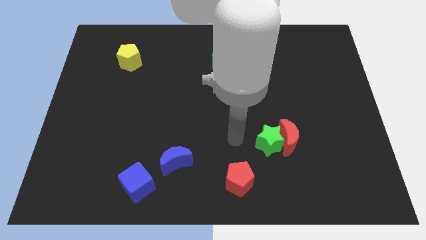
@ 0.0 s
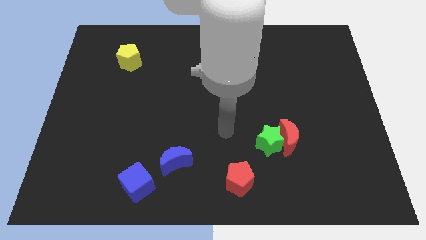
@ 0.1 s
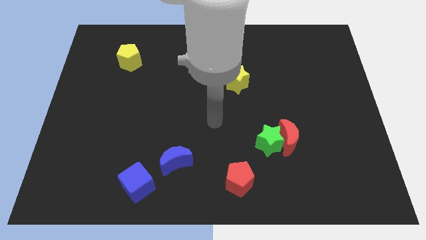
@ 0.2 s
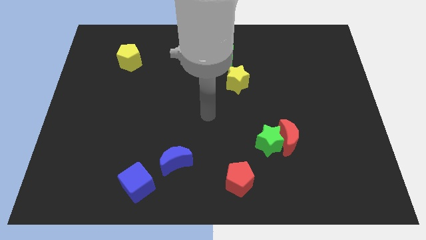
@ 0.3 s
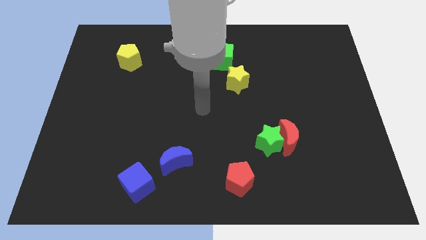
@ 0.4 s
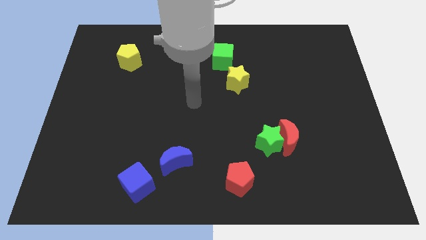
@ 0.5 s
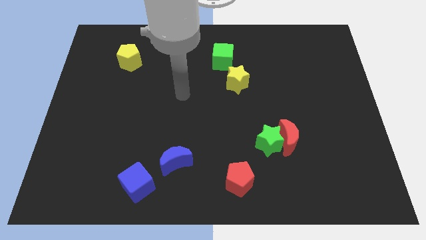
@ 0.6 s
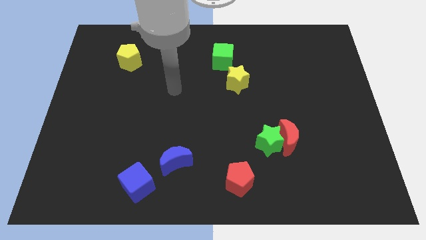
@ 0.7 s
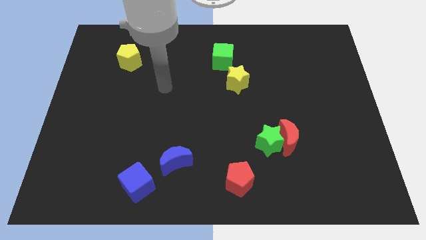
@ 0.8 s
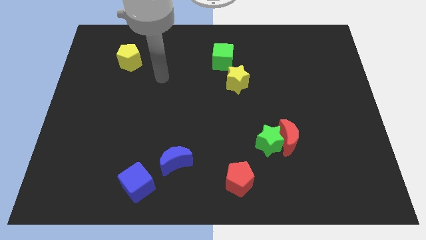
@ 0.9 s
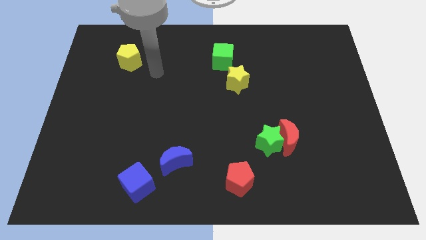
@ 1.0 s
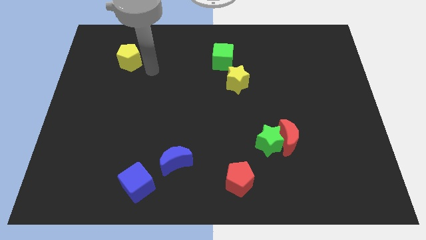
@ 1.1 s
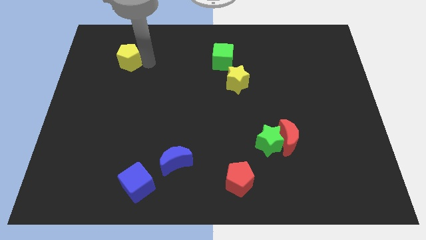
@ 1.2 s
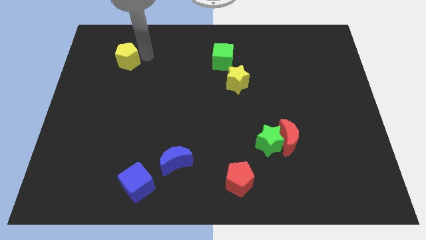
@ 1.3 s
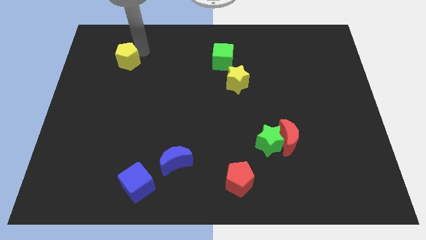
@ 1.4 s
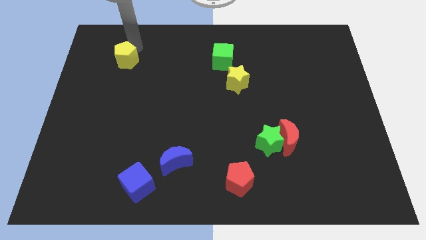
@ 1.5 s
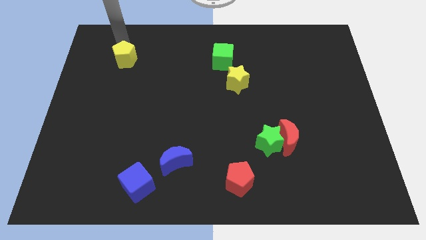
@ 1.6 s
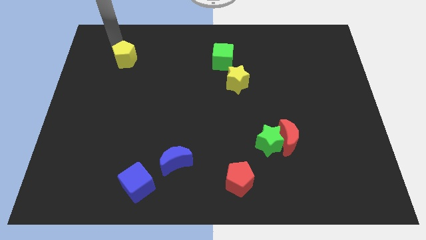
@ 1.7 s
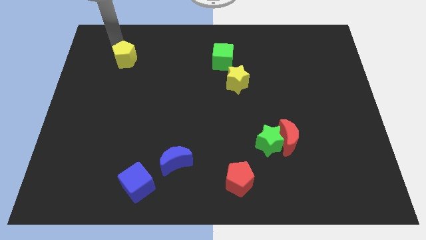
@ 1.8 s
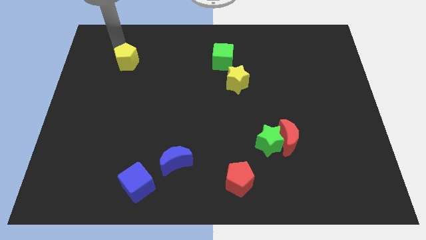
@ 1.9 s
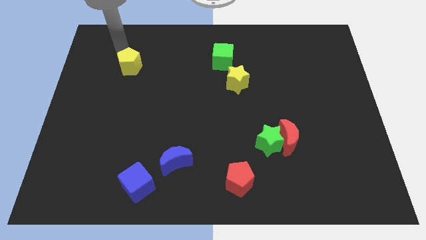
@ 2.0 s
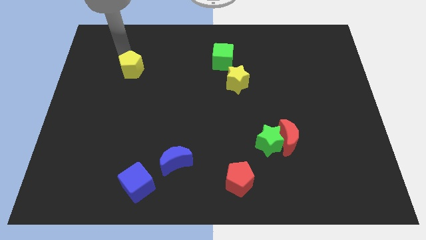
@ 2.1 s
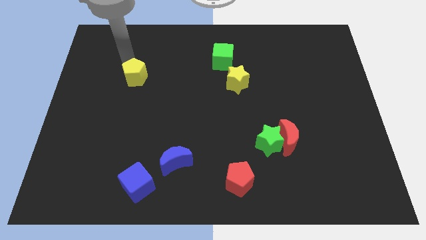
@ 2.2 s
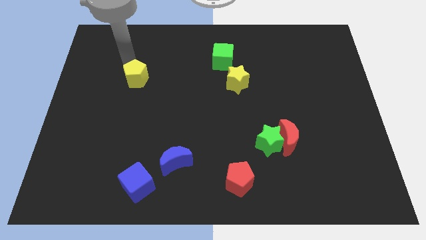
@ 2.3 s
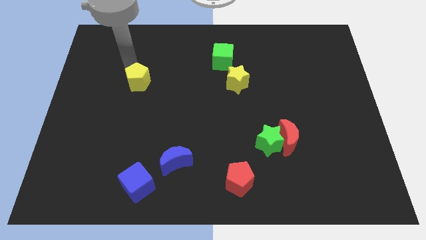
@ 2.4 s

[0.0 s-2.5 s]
slightly move the yellow pentagon downwards and then right

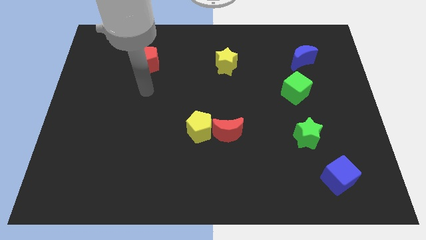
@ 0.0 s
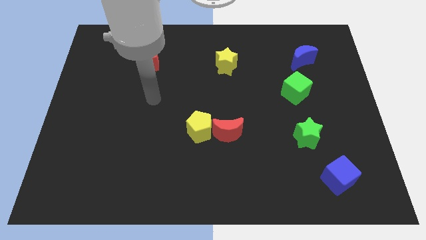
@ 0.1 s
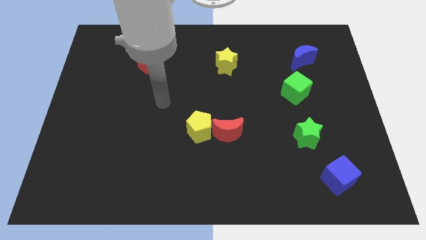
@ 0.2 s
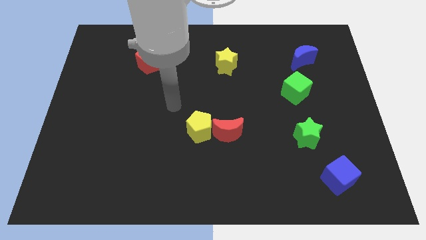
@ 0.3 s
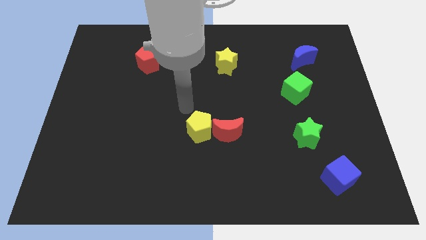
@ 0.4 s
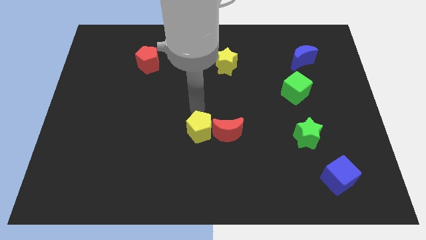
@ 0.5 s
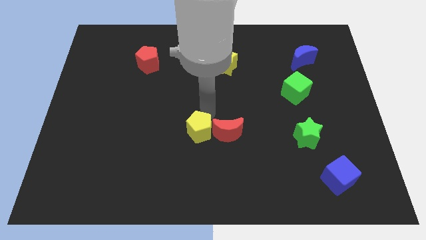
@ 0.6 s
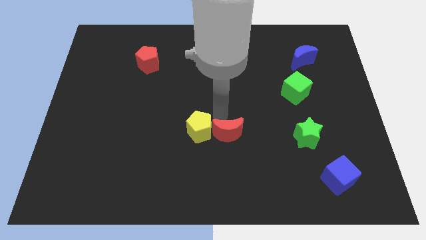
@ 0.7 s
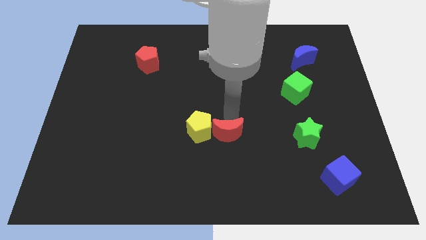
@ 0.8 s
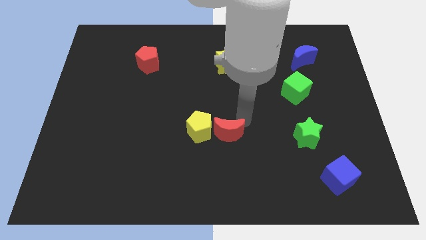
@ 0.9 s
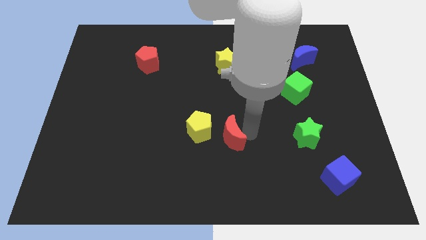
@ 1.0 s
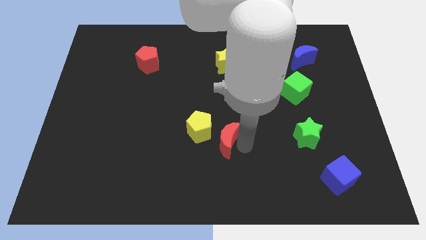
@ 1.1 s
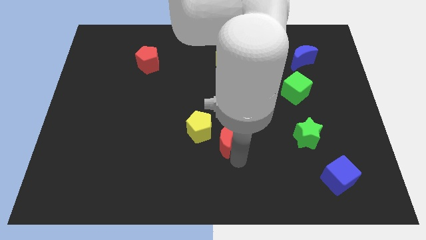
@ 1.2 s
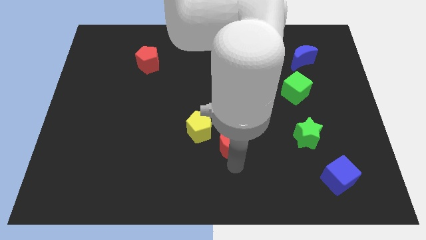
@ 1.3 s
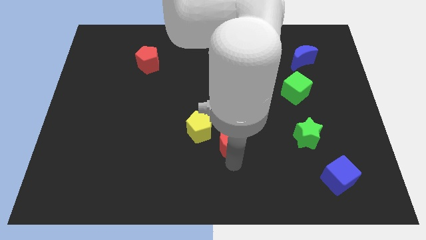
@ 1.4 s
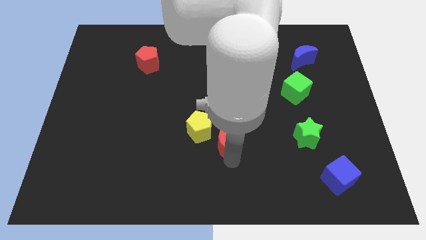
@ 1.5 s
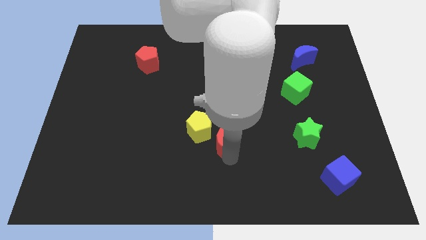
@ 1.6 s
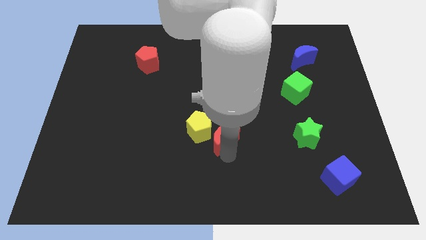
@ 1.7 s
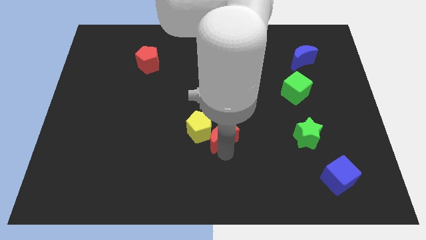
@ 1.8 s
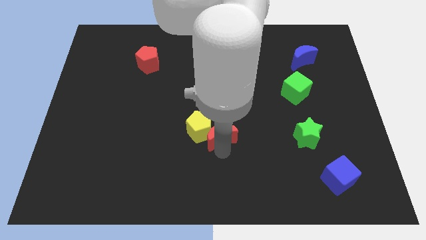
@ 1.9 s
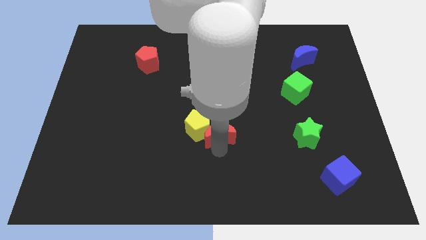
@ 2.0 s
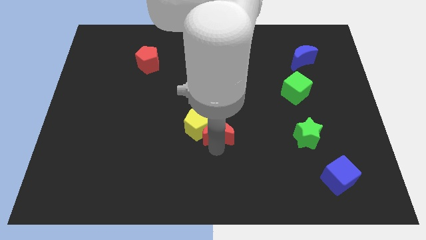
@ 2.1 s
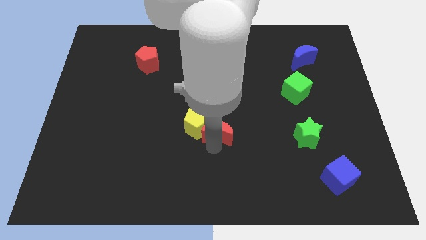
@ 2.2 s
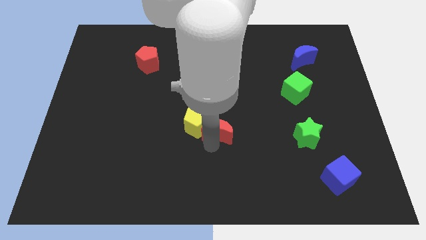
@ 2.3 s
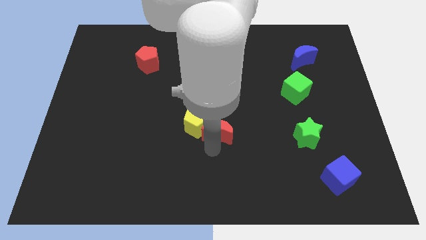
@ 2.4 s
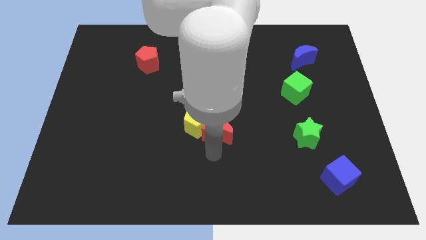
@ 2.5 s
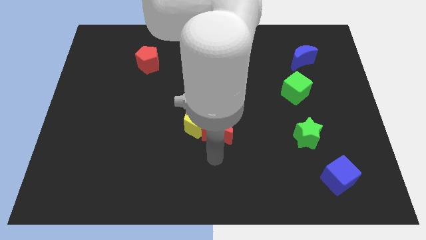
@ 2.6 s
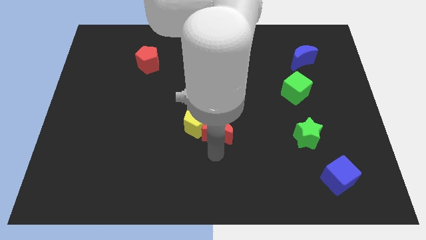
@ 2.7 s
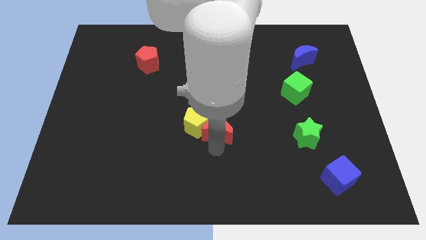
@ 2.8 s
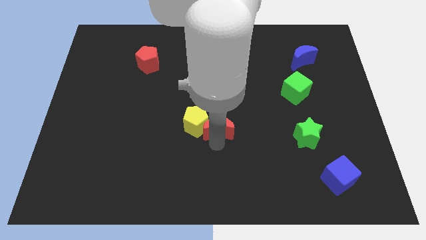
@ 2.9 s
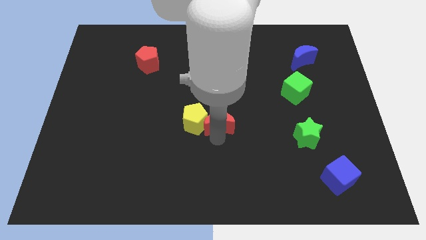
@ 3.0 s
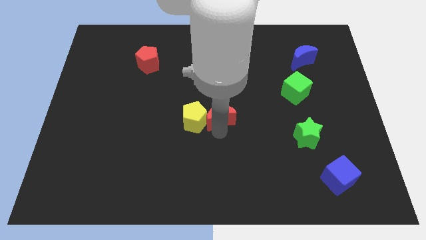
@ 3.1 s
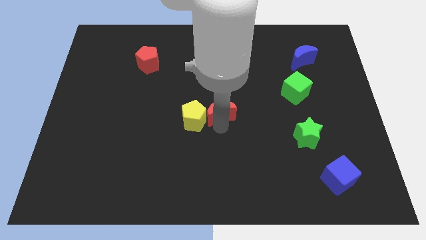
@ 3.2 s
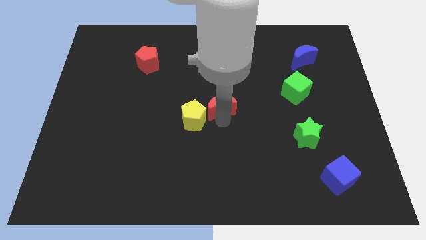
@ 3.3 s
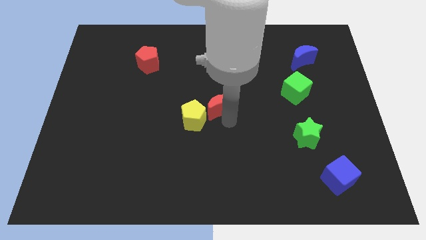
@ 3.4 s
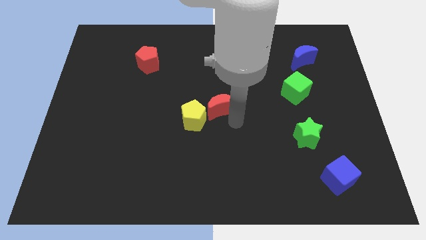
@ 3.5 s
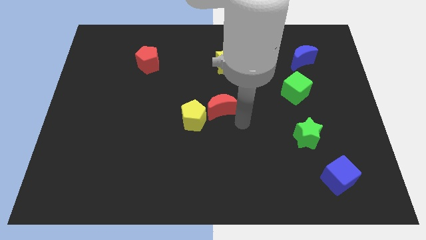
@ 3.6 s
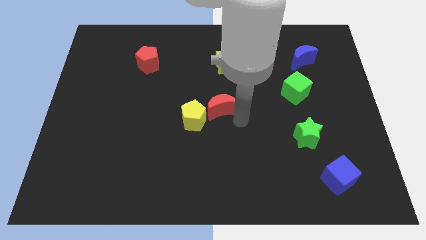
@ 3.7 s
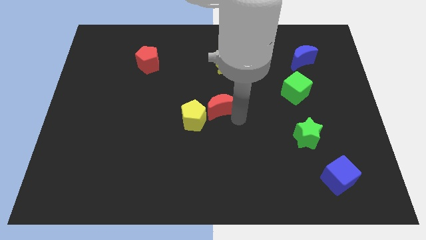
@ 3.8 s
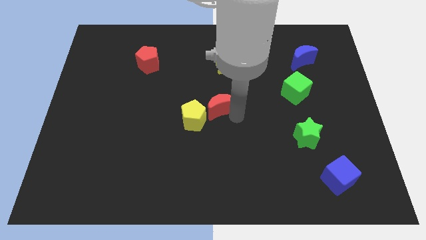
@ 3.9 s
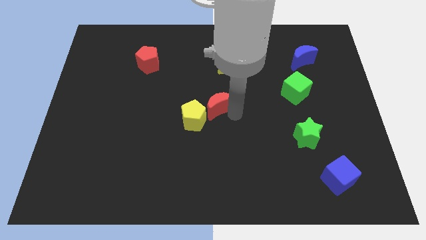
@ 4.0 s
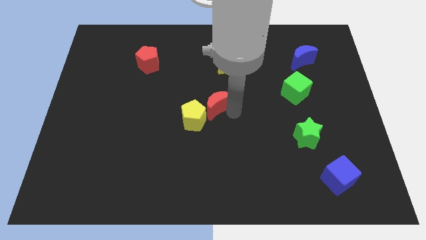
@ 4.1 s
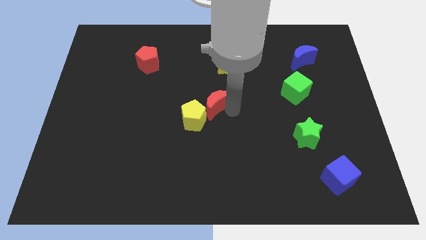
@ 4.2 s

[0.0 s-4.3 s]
move the red moon upwards and to the left a little

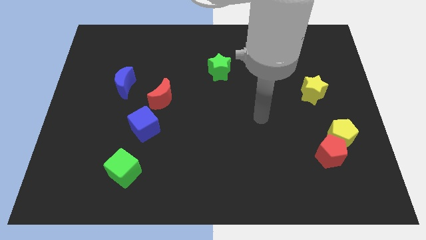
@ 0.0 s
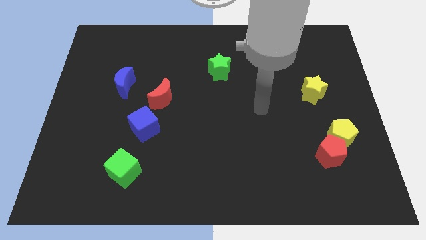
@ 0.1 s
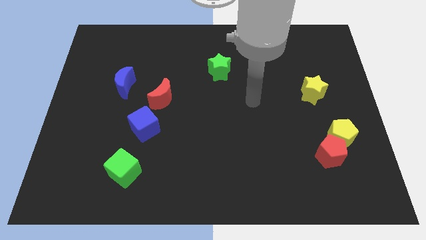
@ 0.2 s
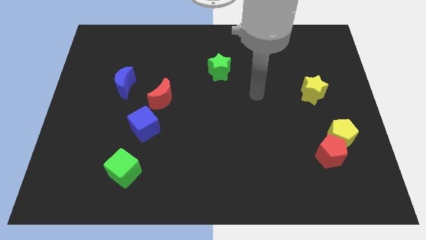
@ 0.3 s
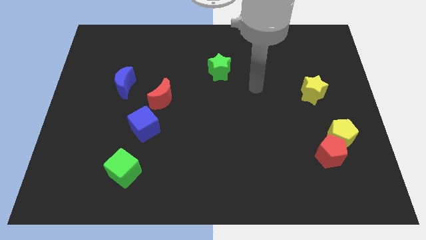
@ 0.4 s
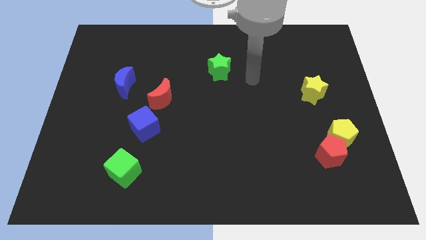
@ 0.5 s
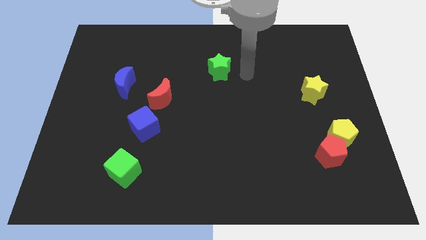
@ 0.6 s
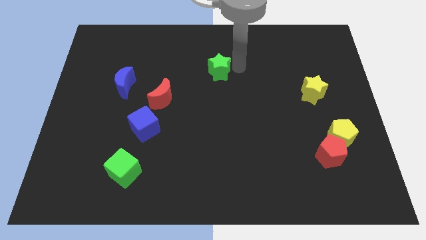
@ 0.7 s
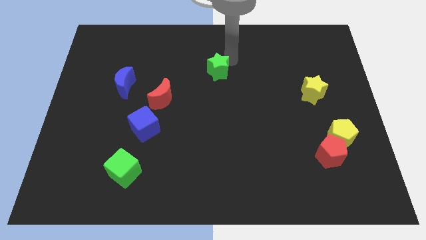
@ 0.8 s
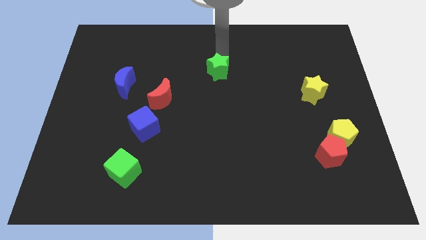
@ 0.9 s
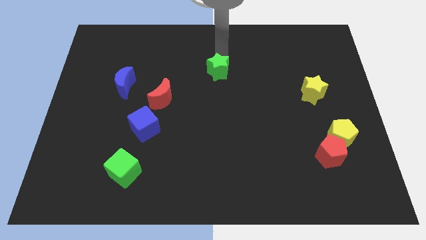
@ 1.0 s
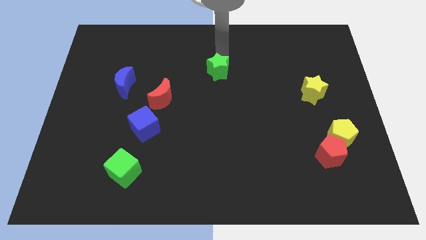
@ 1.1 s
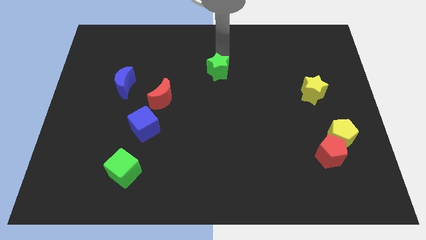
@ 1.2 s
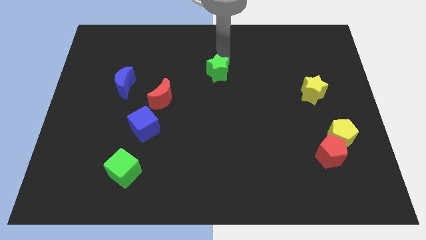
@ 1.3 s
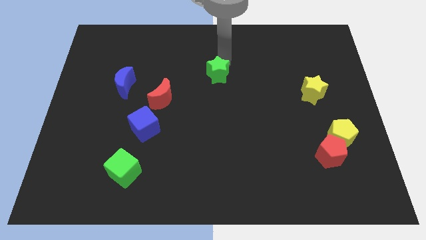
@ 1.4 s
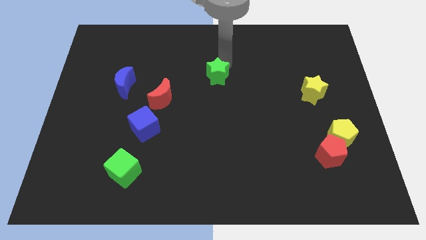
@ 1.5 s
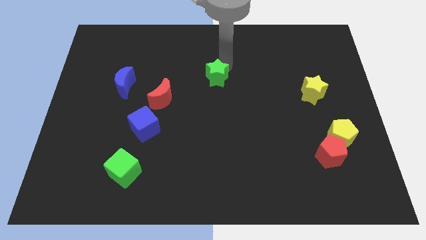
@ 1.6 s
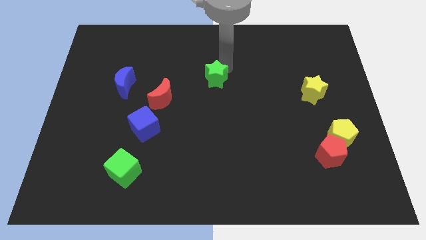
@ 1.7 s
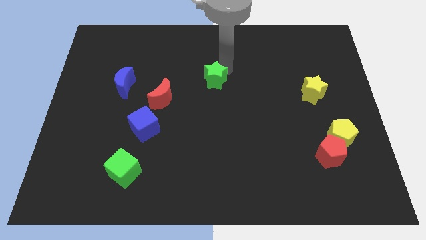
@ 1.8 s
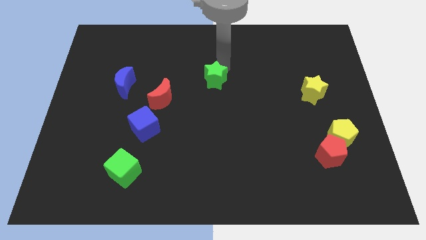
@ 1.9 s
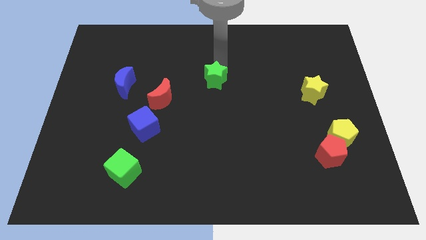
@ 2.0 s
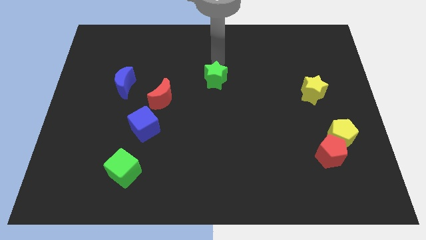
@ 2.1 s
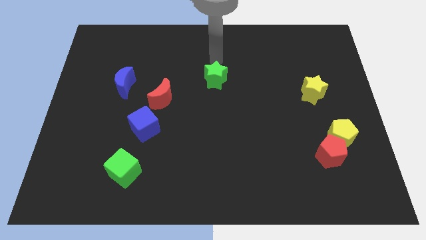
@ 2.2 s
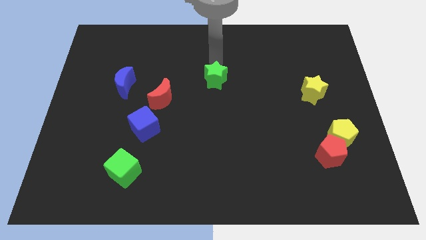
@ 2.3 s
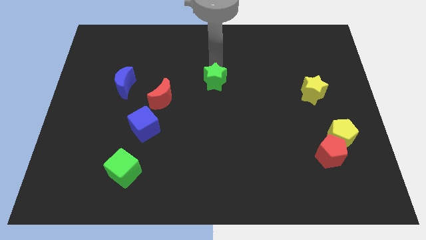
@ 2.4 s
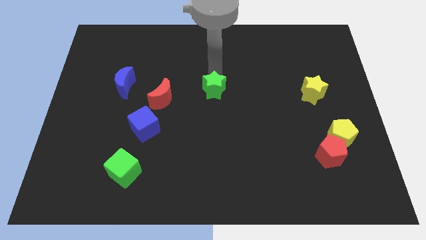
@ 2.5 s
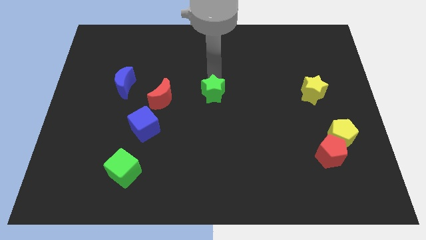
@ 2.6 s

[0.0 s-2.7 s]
slide the green star a little bit down
